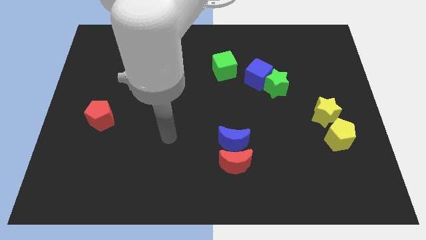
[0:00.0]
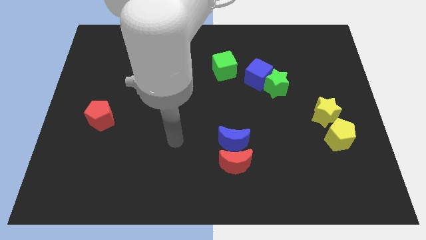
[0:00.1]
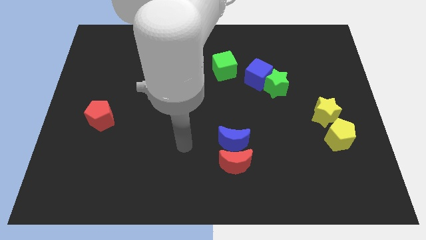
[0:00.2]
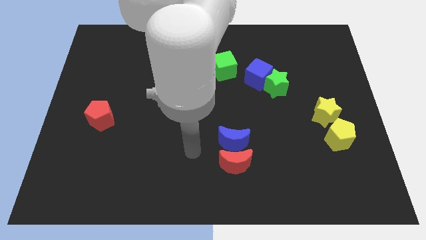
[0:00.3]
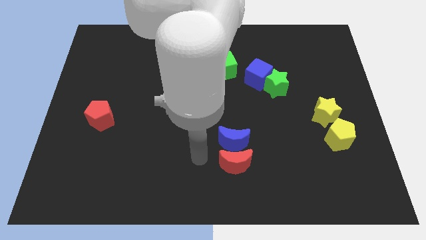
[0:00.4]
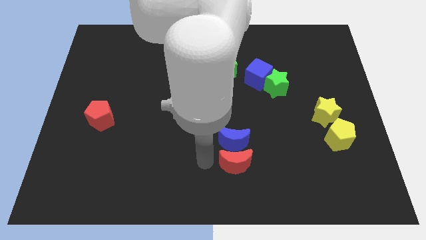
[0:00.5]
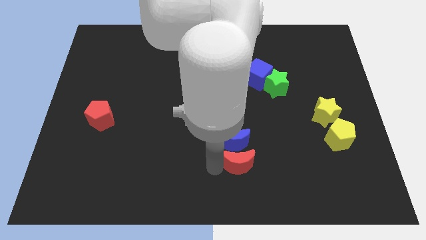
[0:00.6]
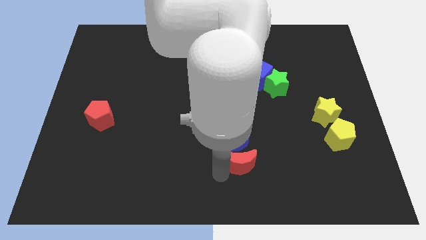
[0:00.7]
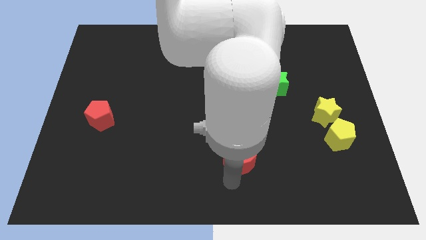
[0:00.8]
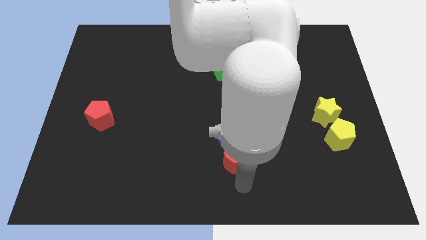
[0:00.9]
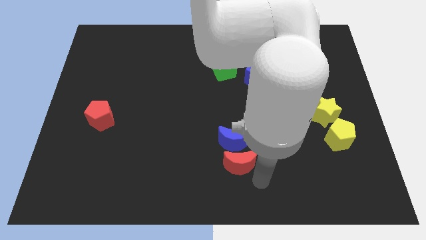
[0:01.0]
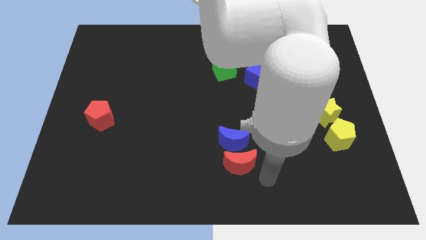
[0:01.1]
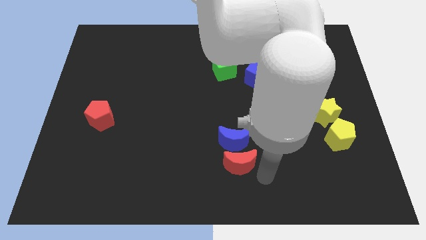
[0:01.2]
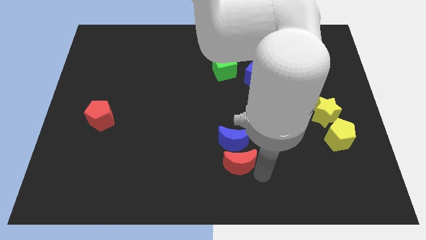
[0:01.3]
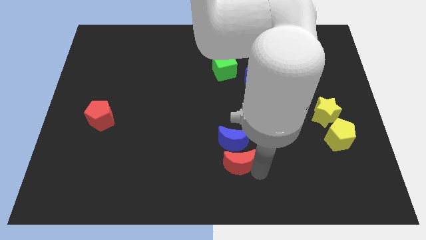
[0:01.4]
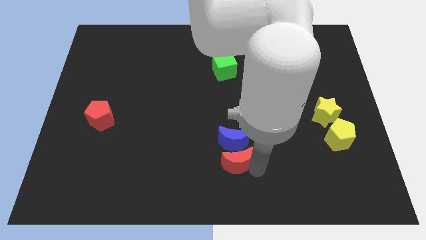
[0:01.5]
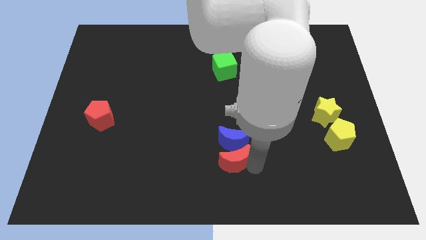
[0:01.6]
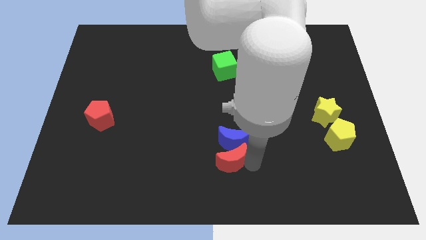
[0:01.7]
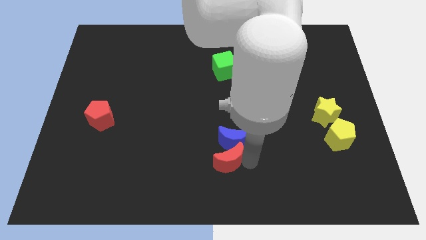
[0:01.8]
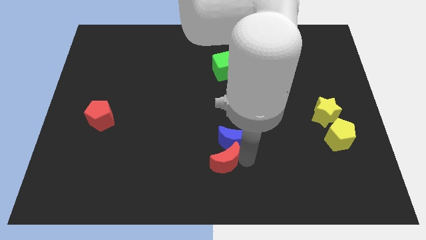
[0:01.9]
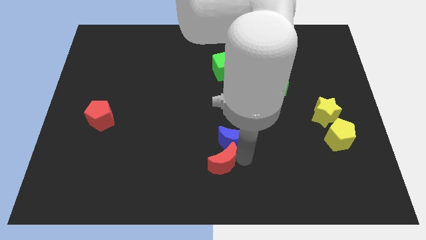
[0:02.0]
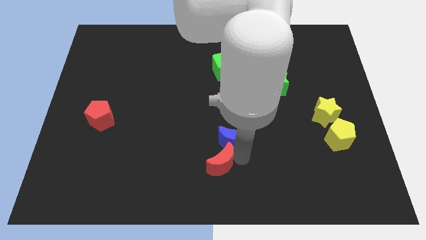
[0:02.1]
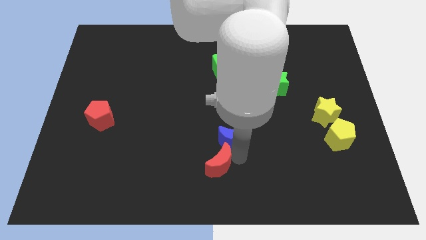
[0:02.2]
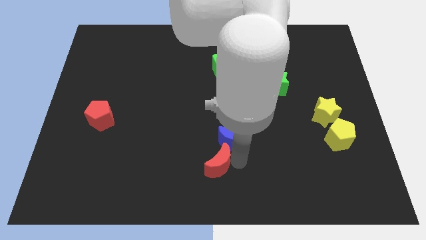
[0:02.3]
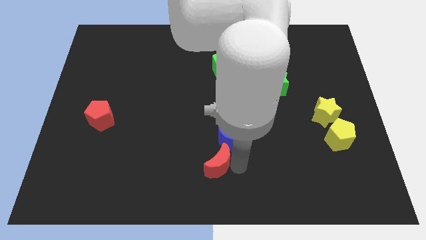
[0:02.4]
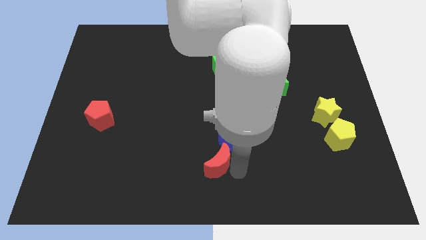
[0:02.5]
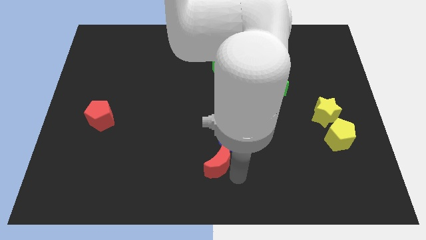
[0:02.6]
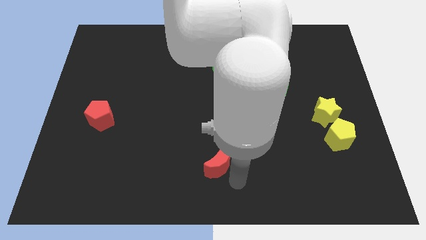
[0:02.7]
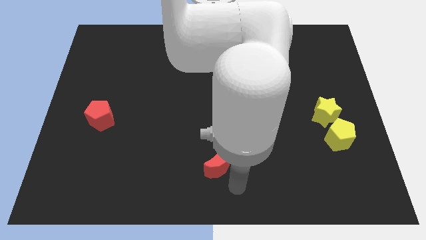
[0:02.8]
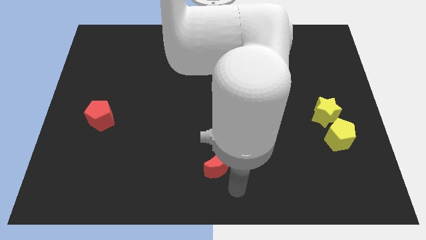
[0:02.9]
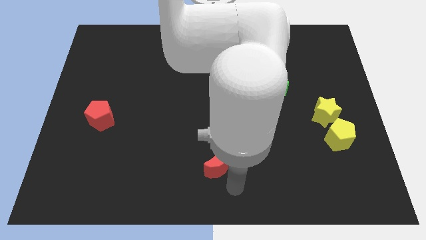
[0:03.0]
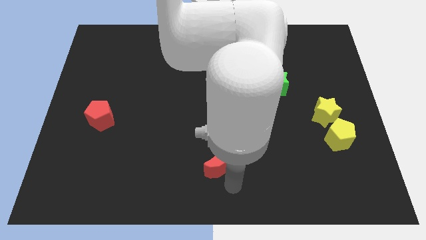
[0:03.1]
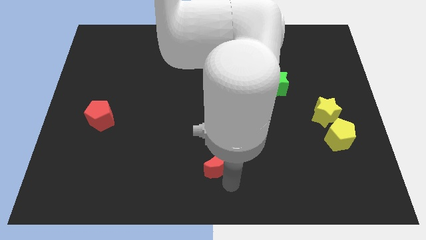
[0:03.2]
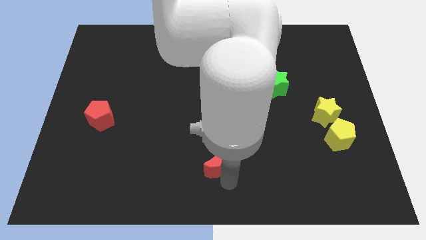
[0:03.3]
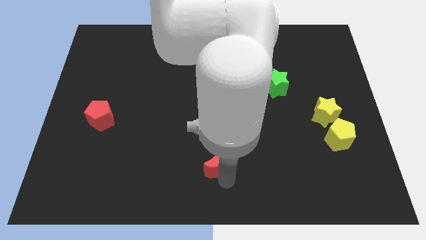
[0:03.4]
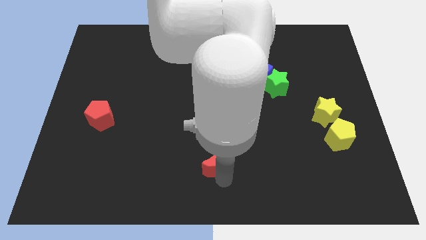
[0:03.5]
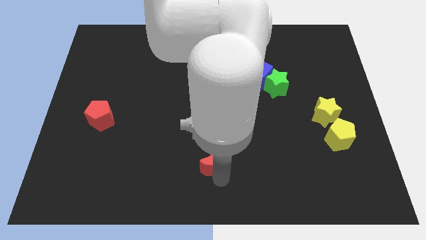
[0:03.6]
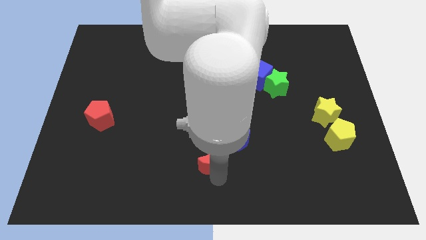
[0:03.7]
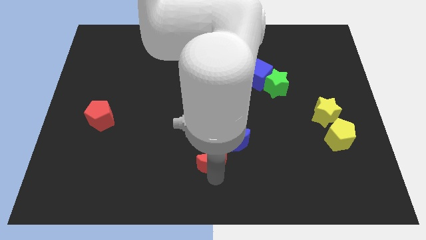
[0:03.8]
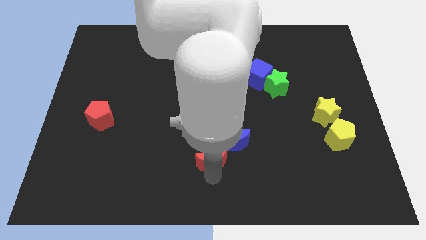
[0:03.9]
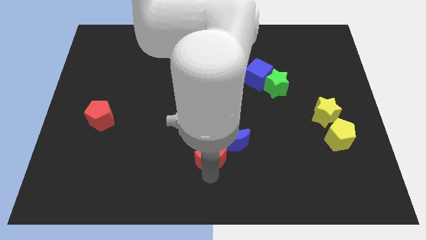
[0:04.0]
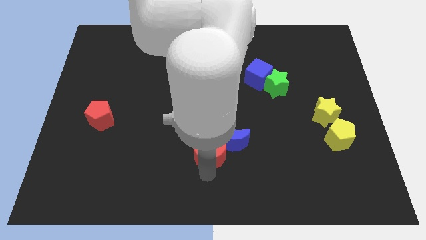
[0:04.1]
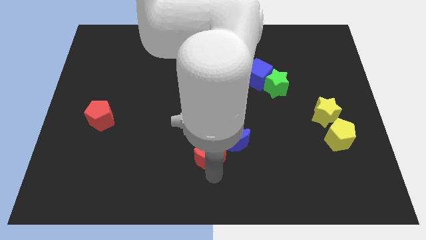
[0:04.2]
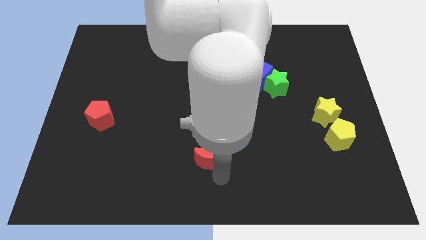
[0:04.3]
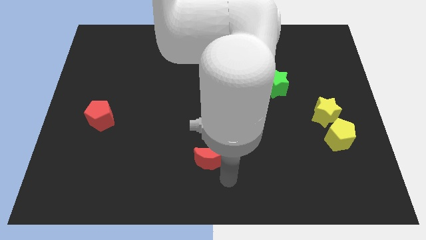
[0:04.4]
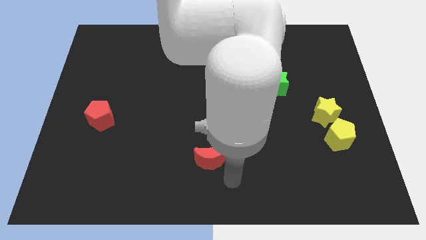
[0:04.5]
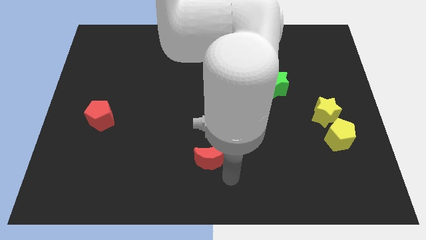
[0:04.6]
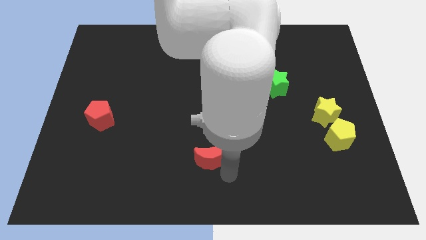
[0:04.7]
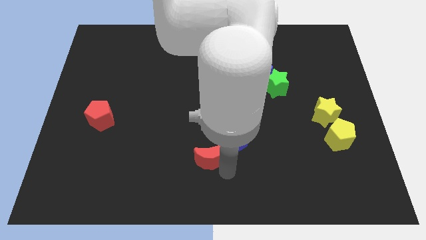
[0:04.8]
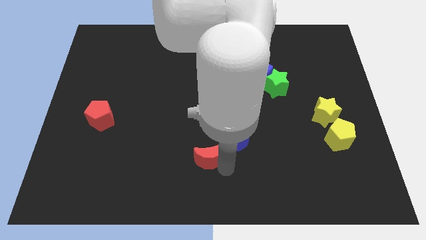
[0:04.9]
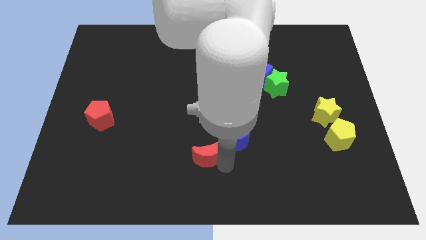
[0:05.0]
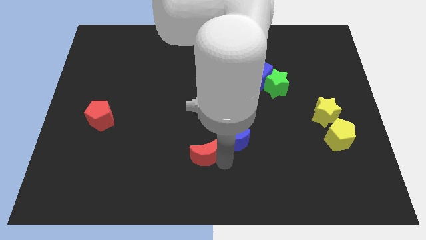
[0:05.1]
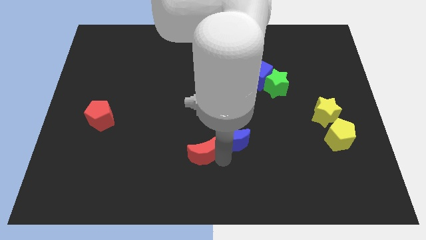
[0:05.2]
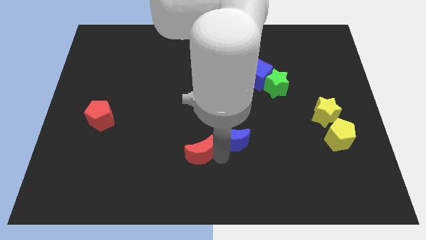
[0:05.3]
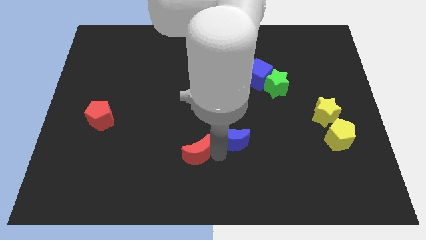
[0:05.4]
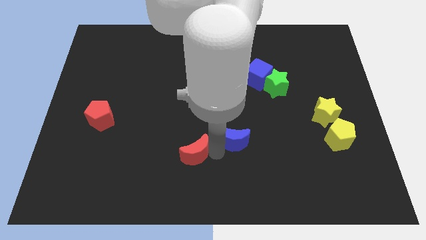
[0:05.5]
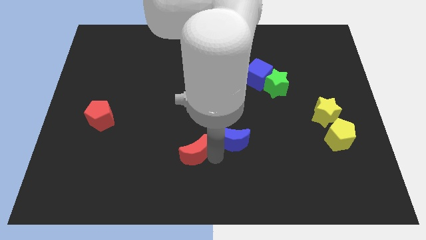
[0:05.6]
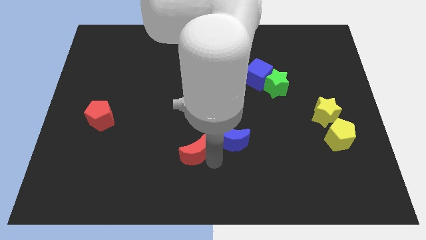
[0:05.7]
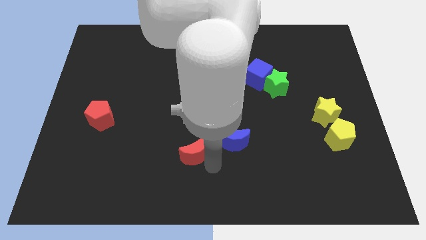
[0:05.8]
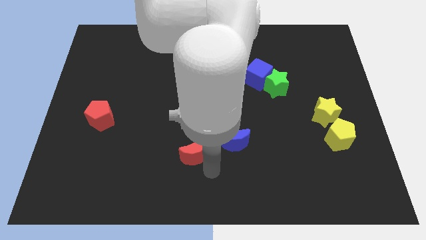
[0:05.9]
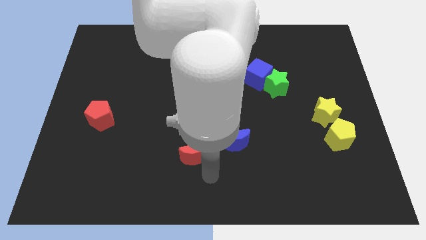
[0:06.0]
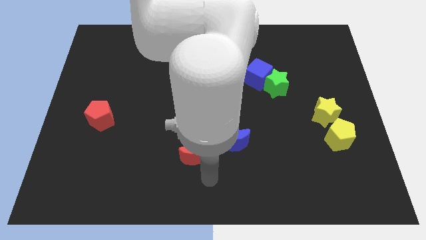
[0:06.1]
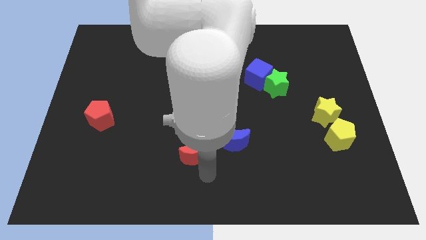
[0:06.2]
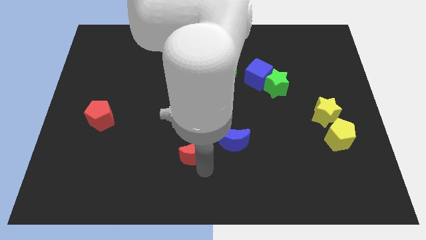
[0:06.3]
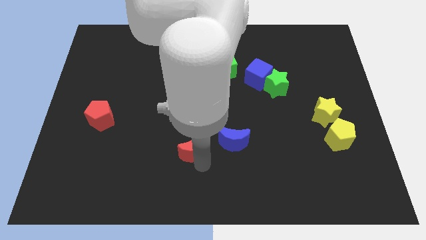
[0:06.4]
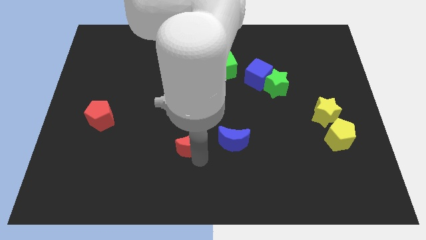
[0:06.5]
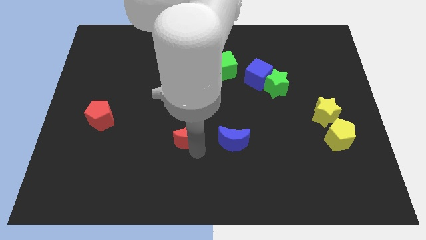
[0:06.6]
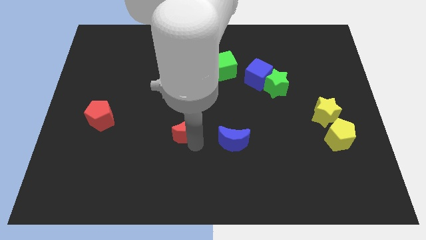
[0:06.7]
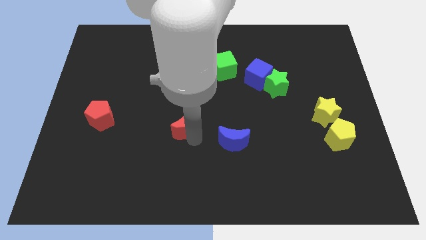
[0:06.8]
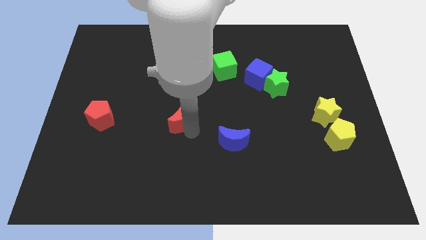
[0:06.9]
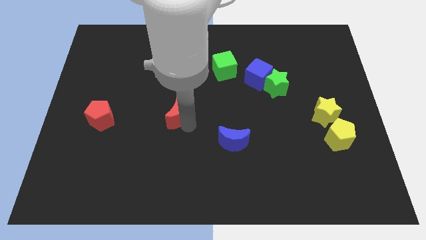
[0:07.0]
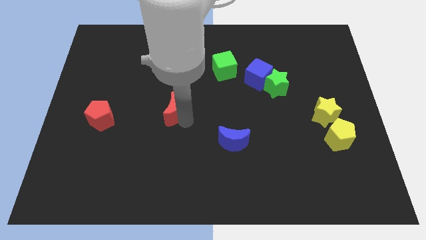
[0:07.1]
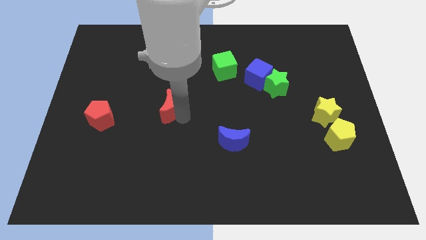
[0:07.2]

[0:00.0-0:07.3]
push the red moon up and then to the left

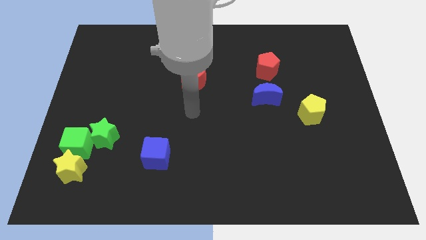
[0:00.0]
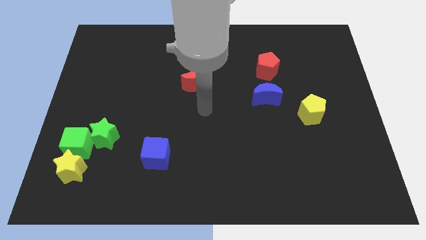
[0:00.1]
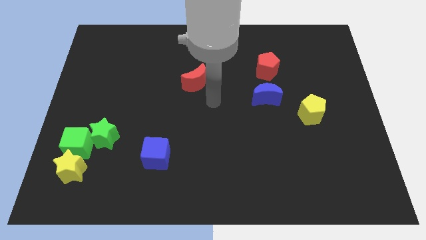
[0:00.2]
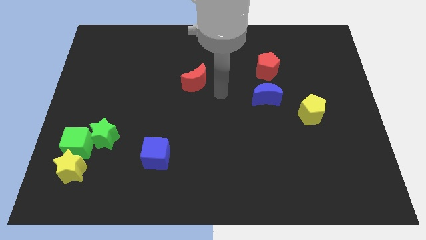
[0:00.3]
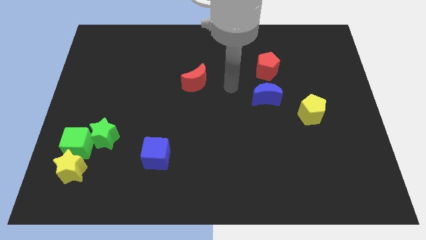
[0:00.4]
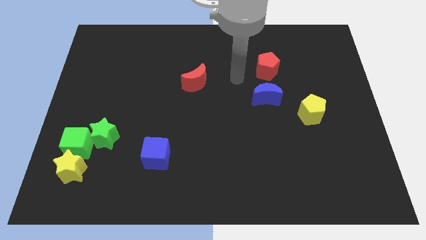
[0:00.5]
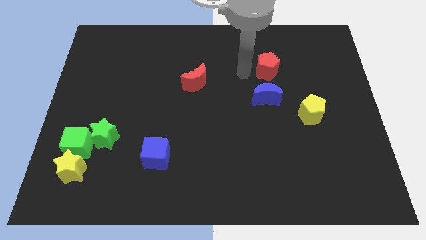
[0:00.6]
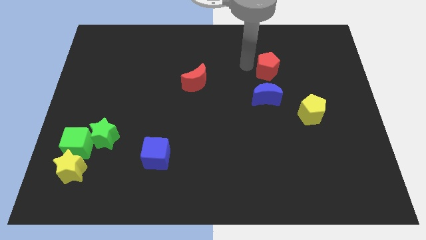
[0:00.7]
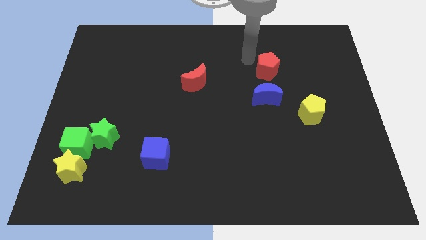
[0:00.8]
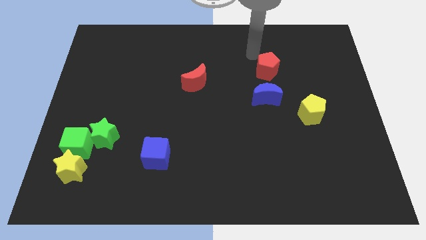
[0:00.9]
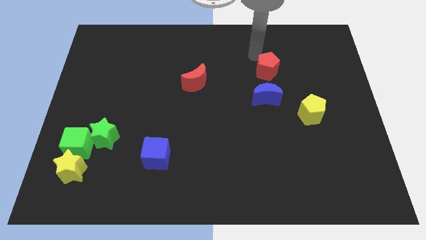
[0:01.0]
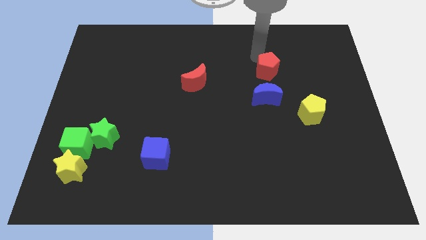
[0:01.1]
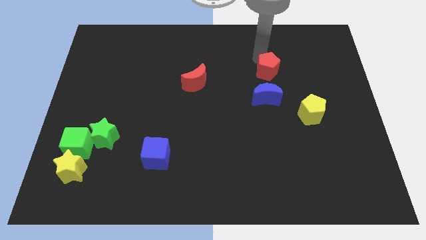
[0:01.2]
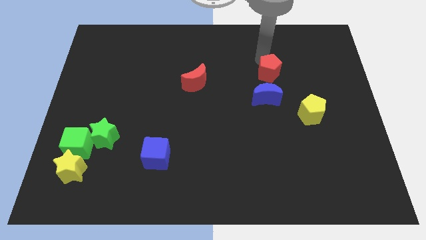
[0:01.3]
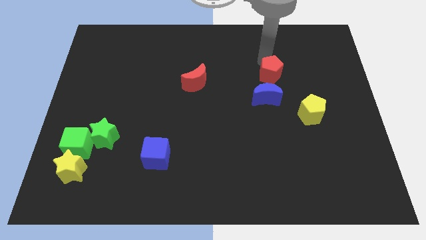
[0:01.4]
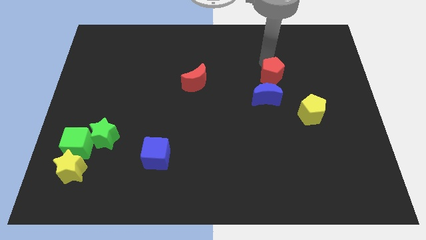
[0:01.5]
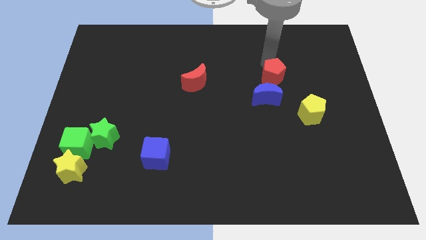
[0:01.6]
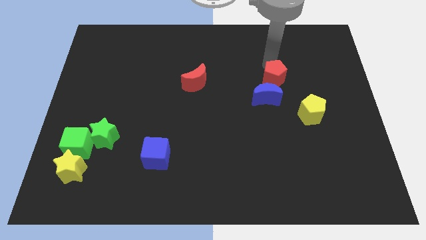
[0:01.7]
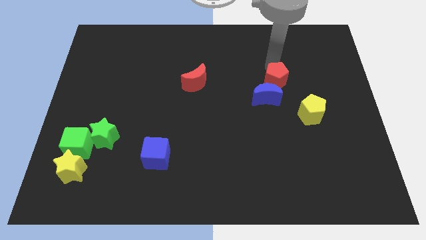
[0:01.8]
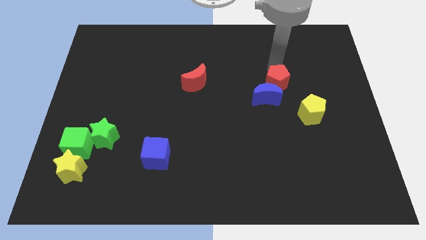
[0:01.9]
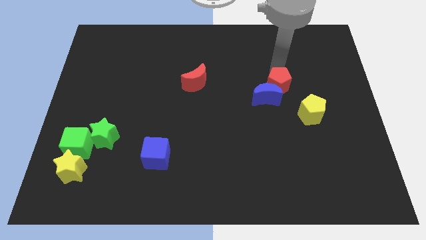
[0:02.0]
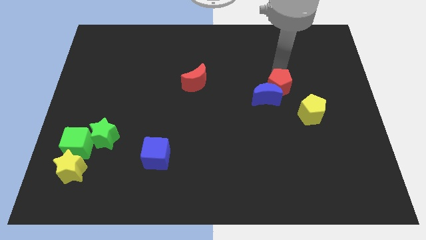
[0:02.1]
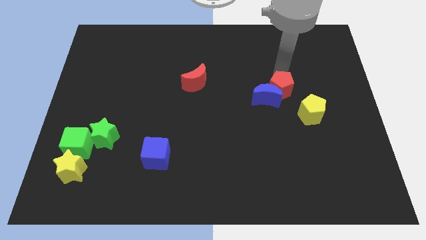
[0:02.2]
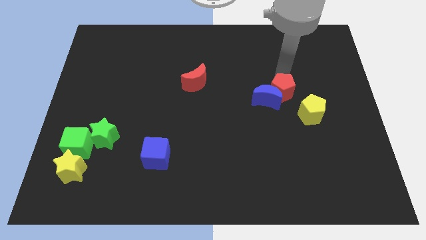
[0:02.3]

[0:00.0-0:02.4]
push the red pentagon a bit downwards
